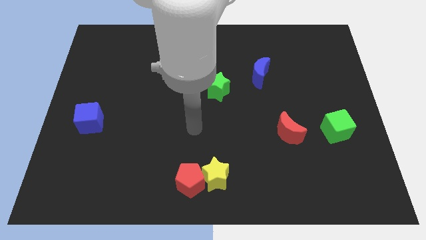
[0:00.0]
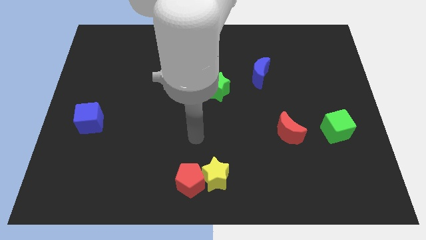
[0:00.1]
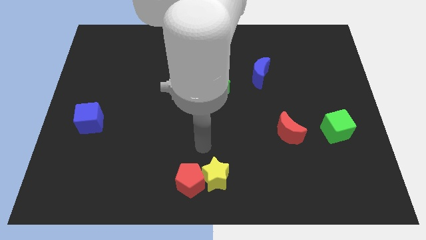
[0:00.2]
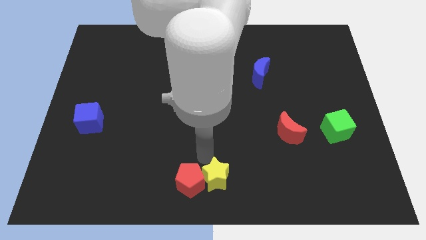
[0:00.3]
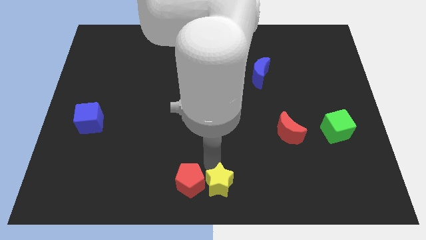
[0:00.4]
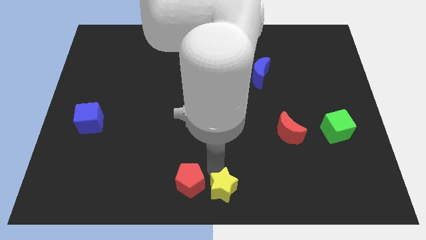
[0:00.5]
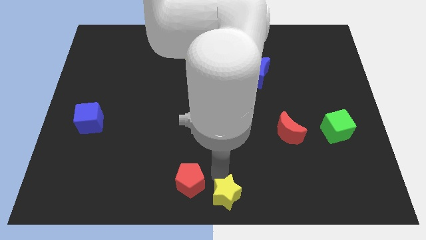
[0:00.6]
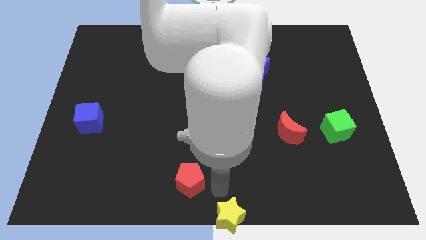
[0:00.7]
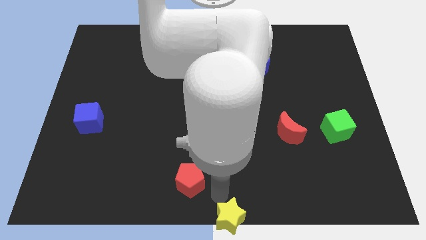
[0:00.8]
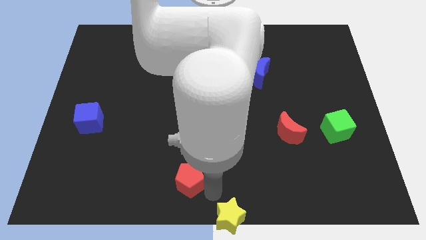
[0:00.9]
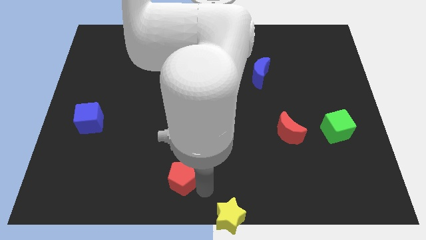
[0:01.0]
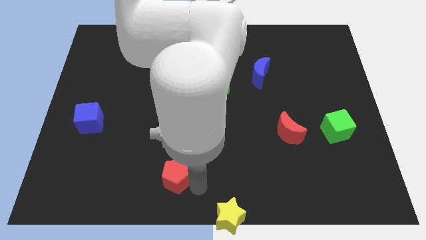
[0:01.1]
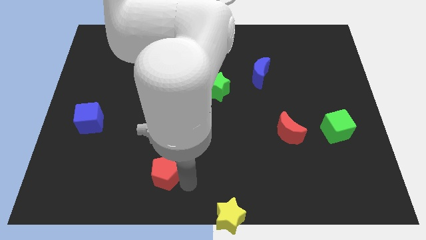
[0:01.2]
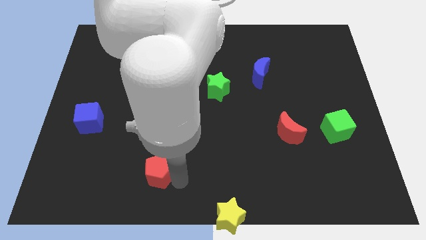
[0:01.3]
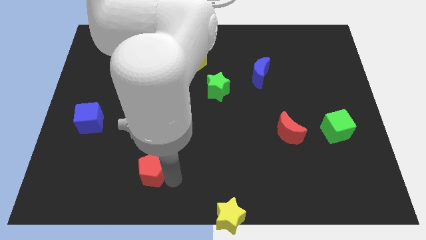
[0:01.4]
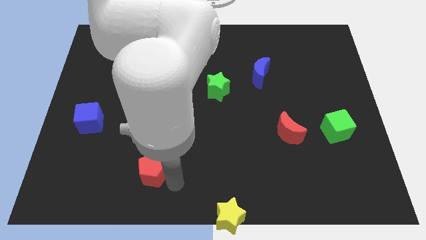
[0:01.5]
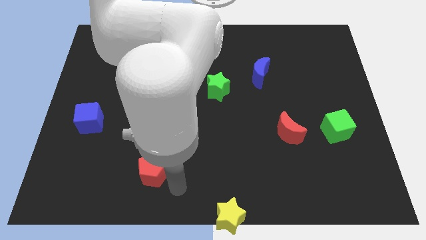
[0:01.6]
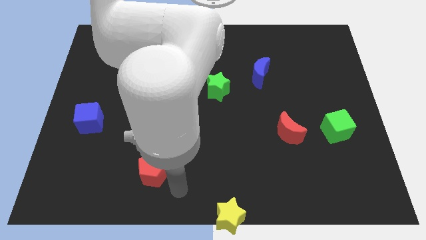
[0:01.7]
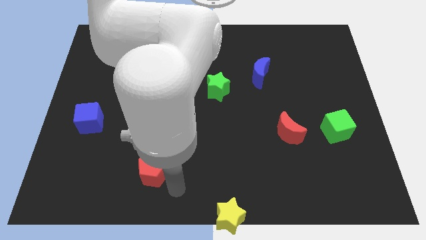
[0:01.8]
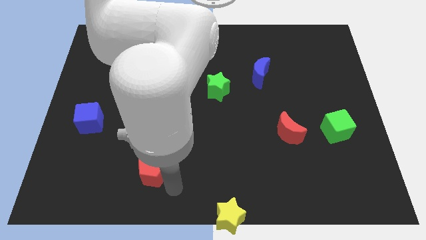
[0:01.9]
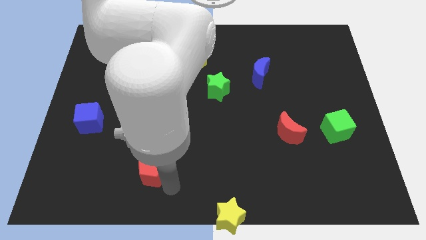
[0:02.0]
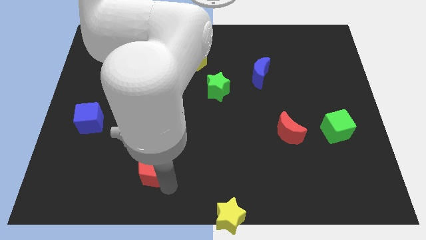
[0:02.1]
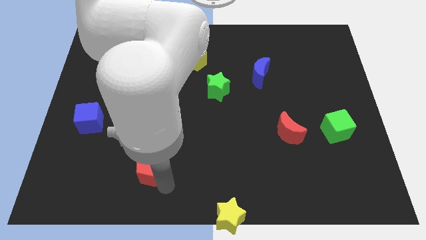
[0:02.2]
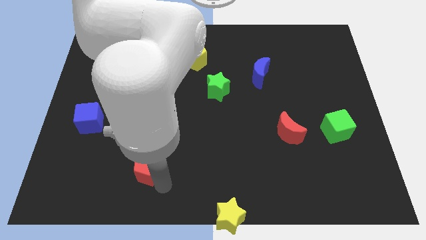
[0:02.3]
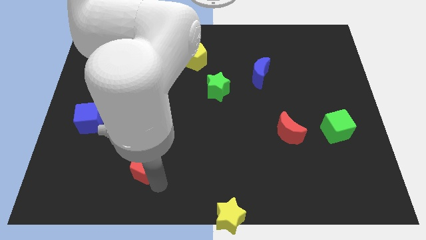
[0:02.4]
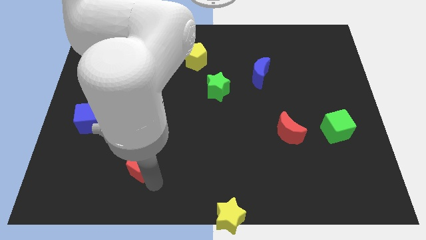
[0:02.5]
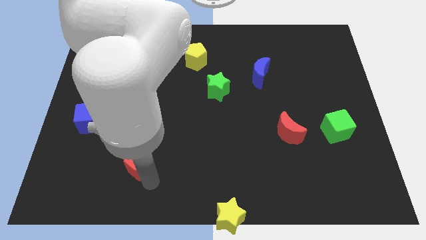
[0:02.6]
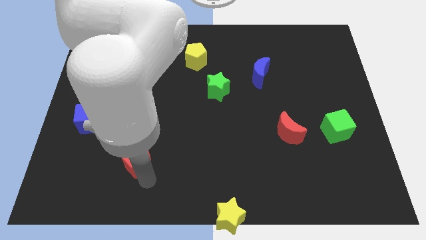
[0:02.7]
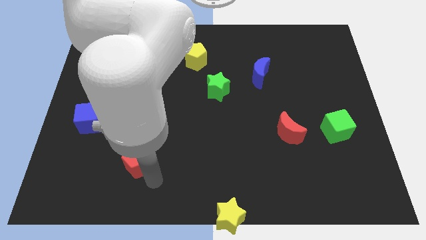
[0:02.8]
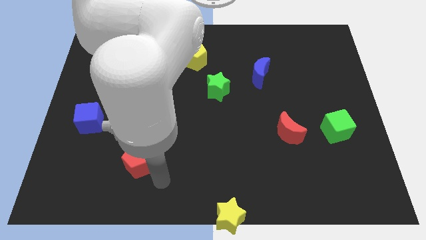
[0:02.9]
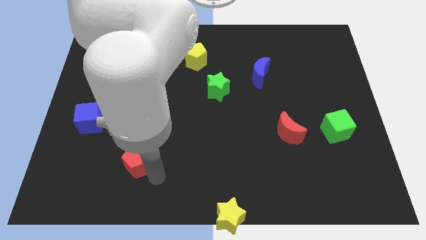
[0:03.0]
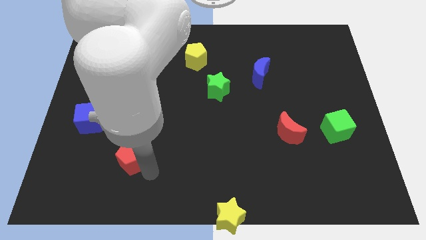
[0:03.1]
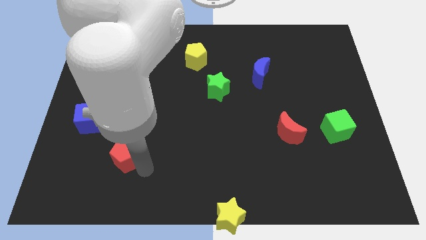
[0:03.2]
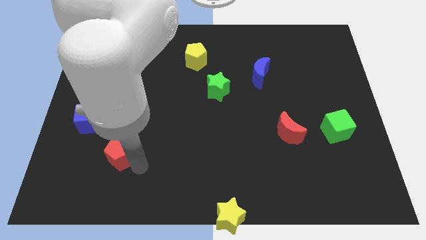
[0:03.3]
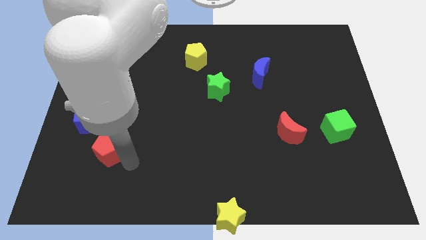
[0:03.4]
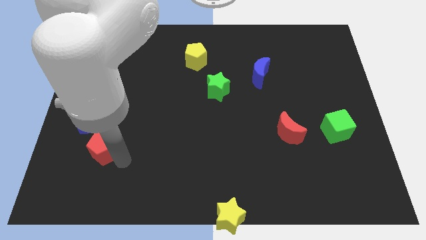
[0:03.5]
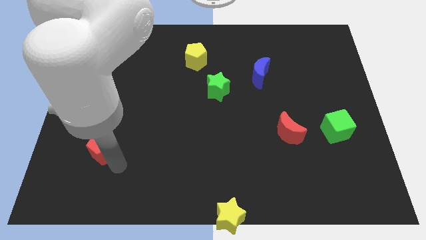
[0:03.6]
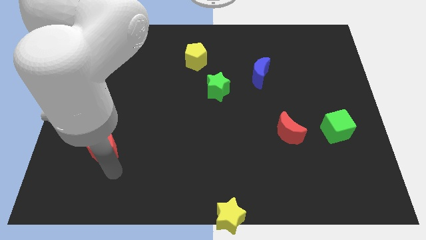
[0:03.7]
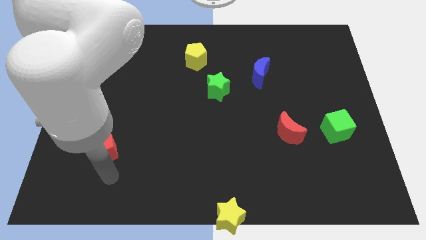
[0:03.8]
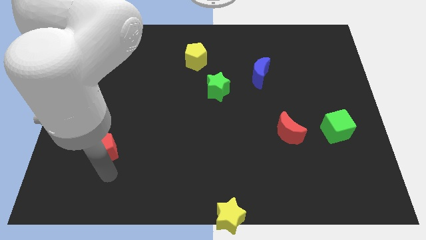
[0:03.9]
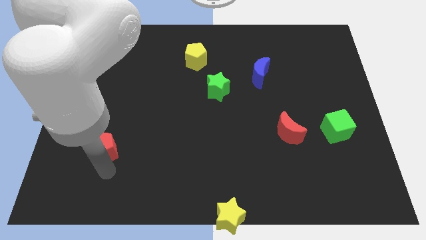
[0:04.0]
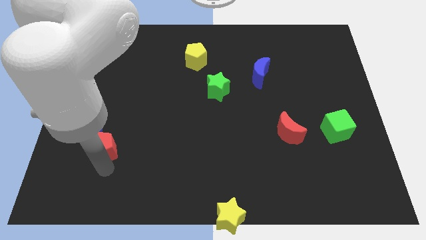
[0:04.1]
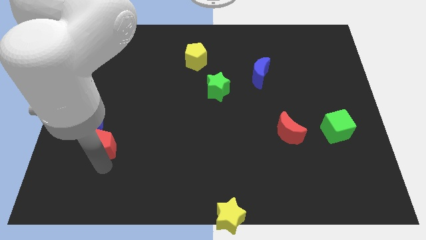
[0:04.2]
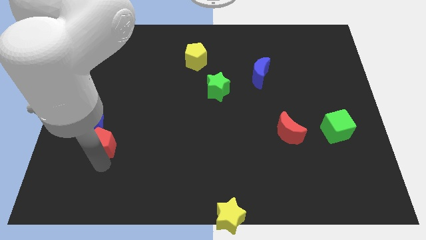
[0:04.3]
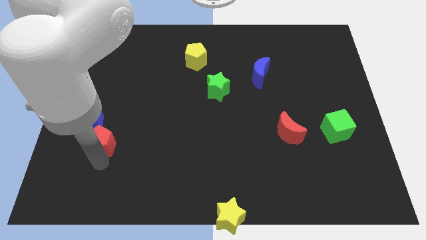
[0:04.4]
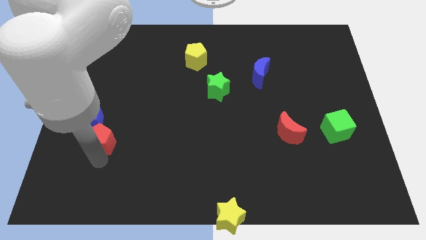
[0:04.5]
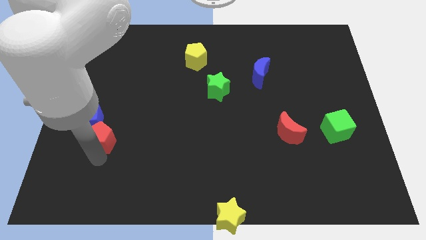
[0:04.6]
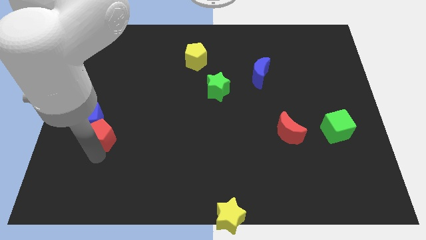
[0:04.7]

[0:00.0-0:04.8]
move the red pentagon close to the blue cube

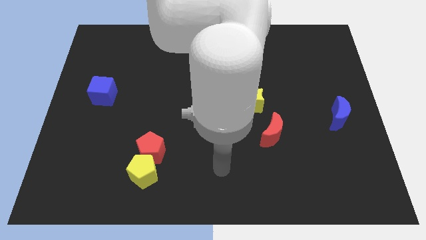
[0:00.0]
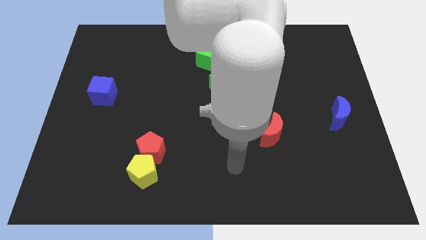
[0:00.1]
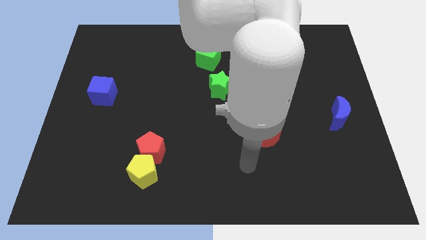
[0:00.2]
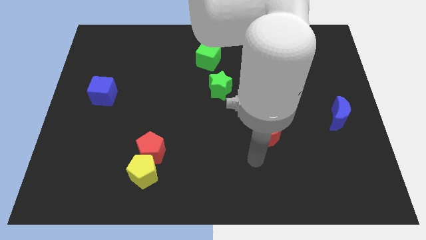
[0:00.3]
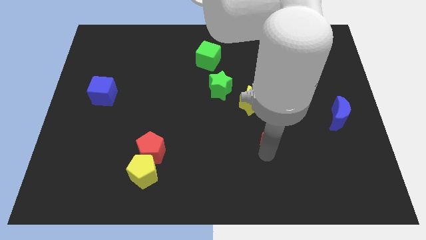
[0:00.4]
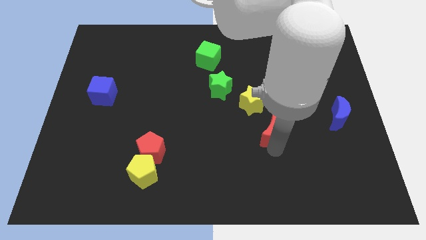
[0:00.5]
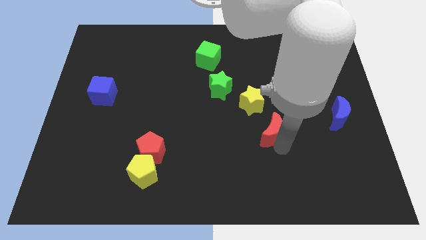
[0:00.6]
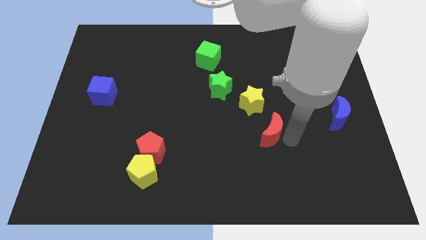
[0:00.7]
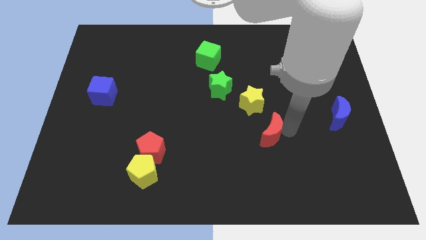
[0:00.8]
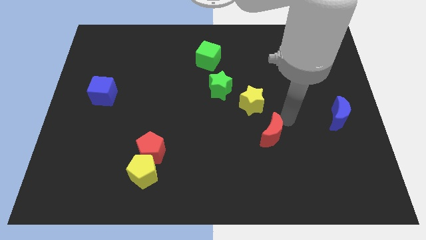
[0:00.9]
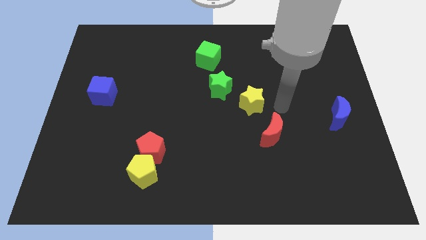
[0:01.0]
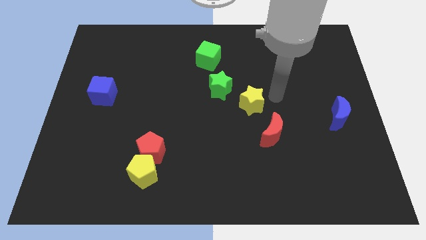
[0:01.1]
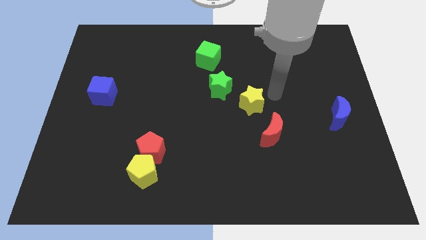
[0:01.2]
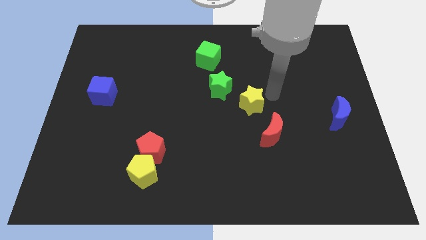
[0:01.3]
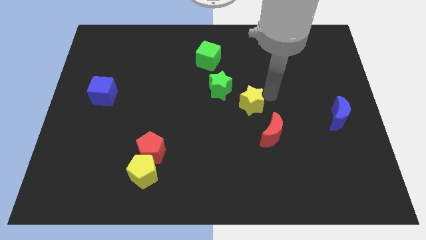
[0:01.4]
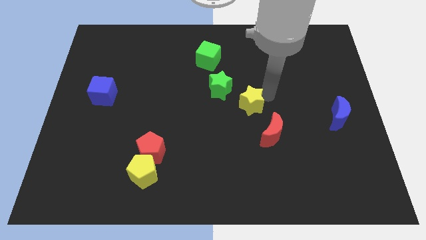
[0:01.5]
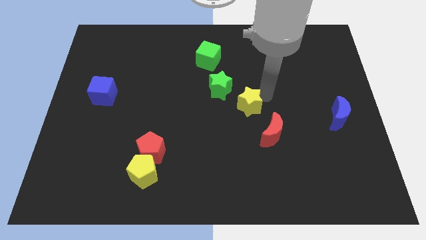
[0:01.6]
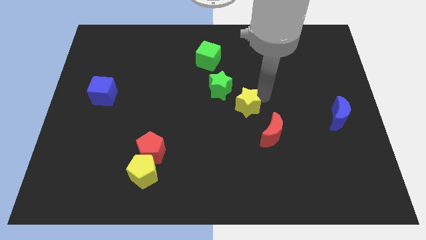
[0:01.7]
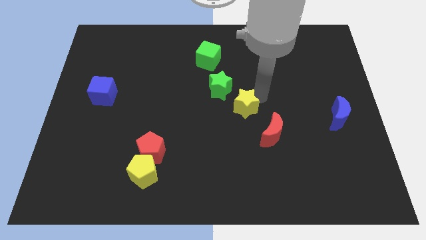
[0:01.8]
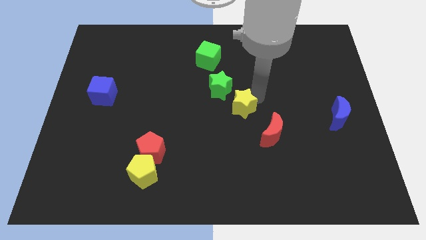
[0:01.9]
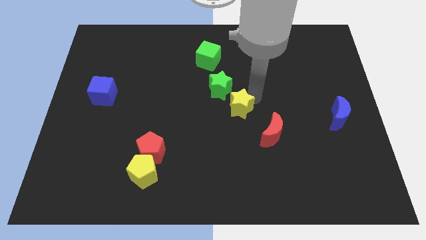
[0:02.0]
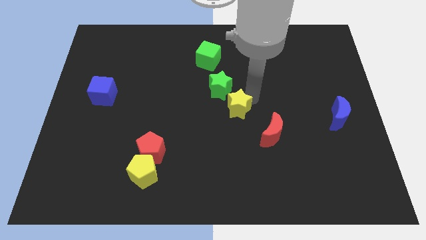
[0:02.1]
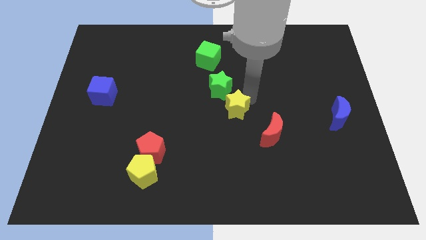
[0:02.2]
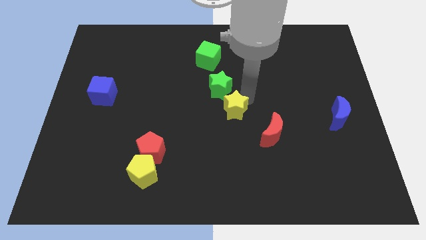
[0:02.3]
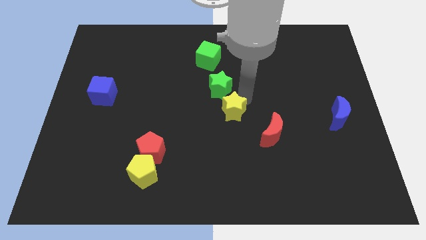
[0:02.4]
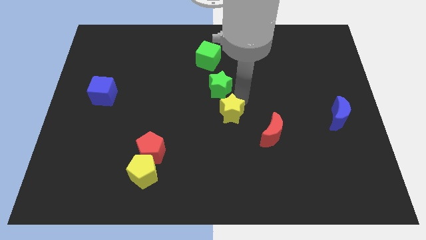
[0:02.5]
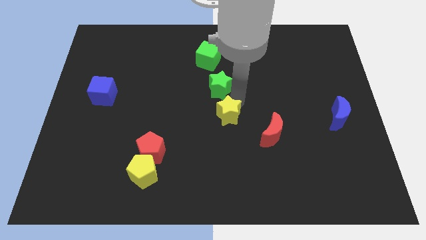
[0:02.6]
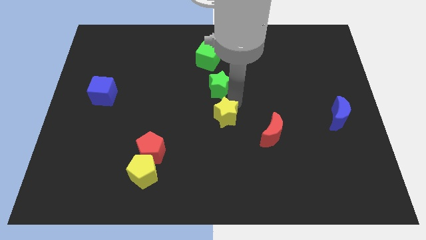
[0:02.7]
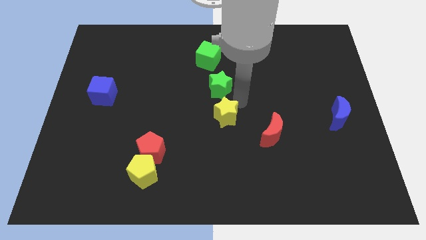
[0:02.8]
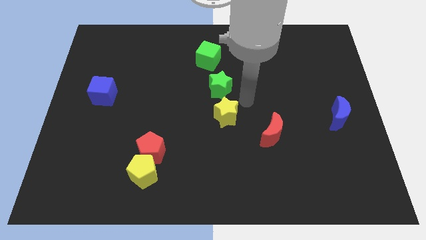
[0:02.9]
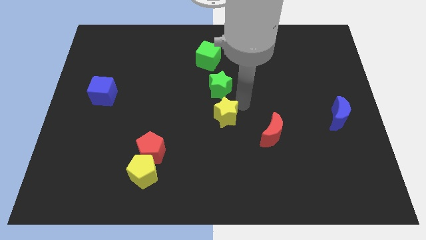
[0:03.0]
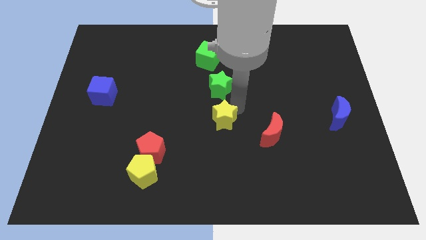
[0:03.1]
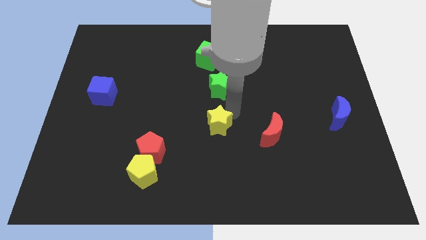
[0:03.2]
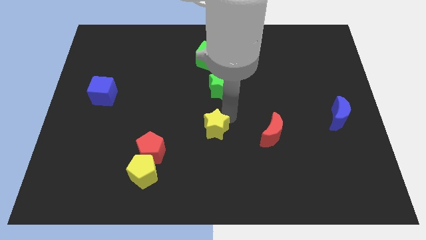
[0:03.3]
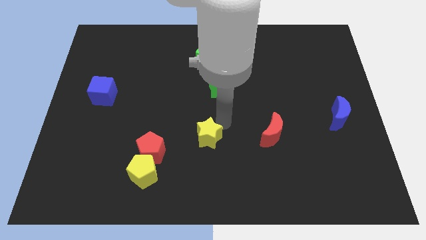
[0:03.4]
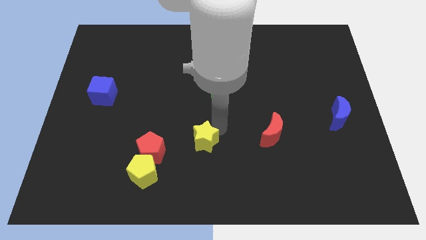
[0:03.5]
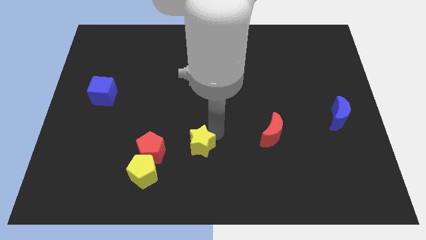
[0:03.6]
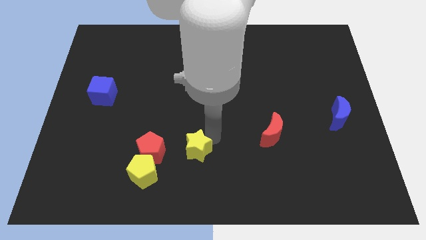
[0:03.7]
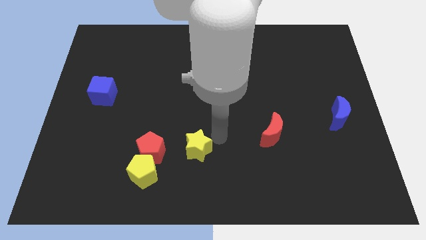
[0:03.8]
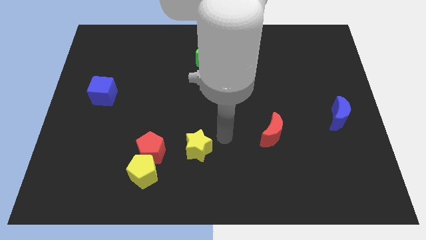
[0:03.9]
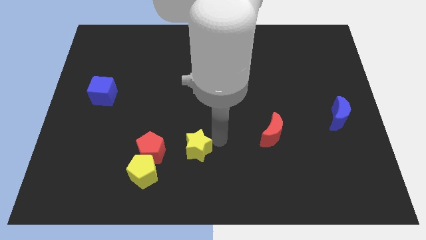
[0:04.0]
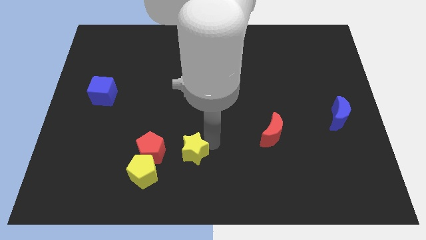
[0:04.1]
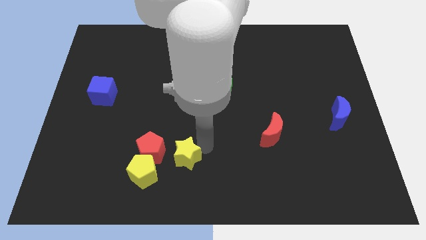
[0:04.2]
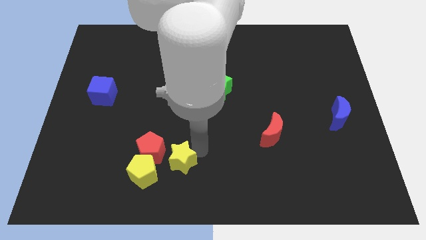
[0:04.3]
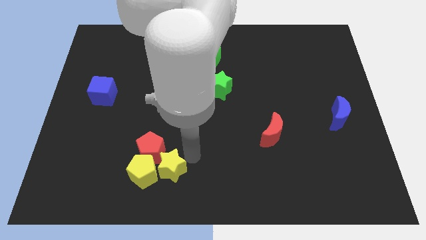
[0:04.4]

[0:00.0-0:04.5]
put the yellow star towards the yellow pentagon
